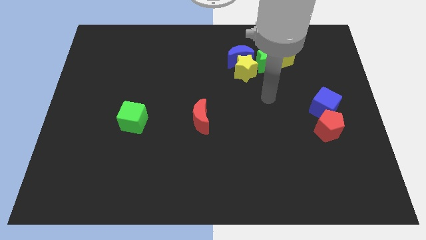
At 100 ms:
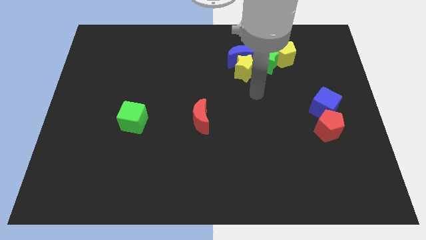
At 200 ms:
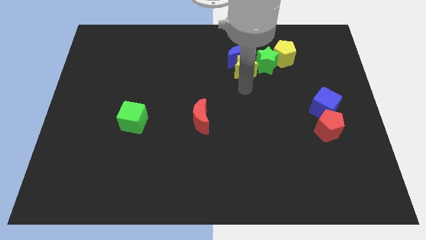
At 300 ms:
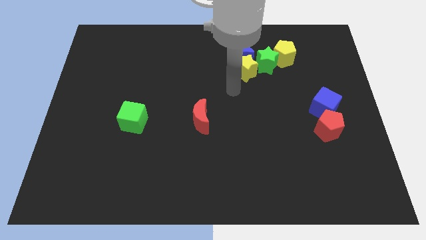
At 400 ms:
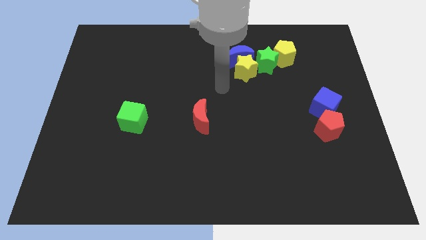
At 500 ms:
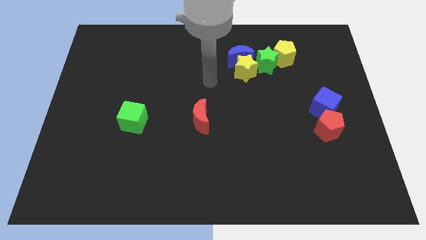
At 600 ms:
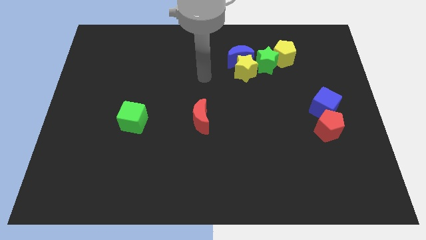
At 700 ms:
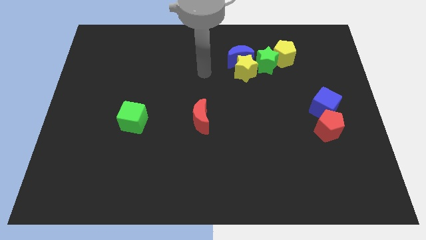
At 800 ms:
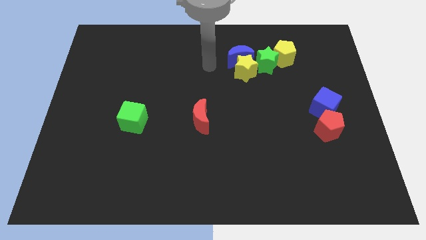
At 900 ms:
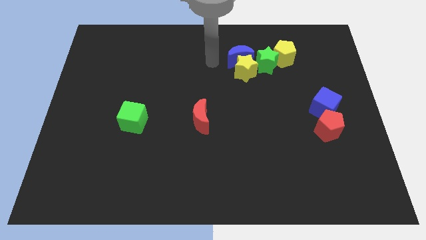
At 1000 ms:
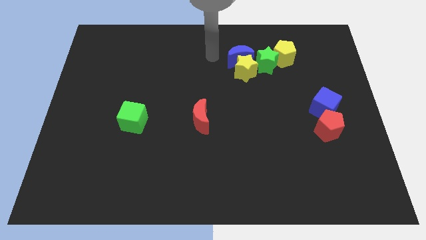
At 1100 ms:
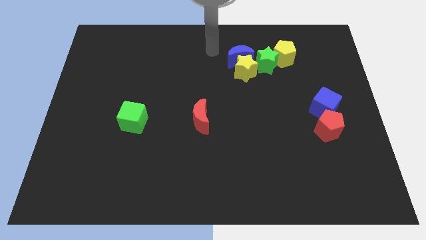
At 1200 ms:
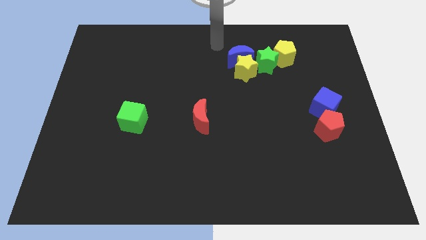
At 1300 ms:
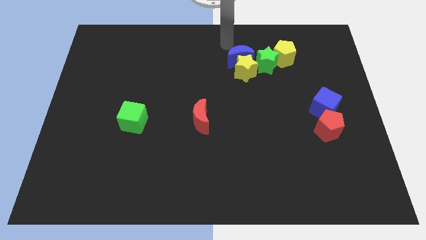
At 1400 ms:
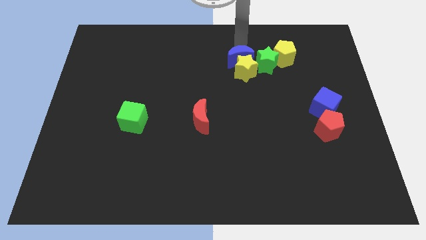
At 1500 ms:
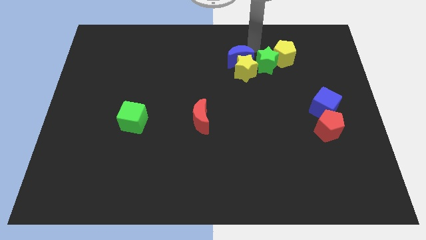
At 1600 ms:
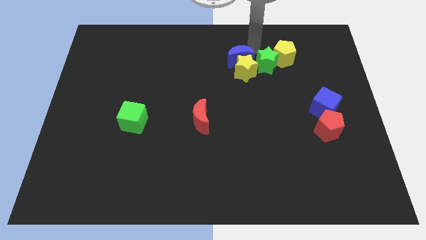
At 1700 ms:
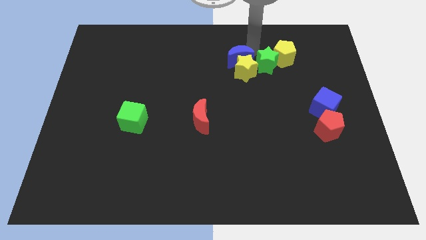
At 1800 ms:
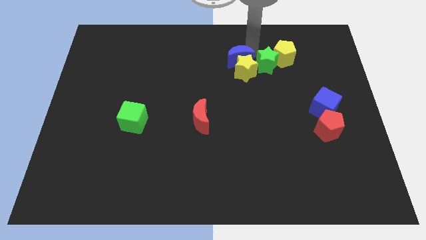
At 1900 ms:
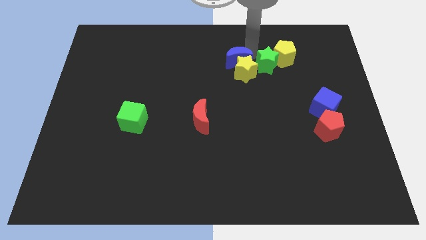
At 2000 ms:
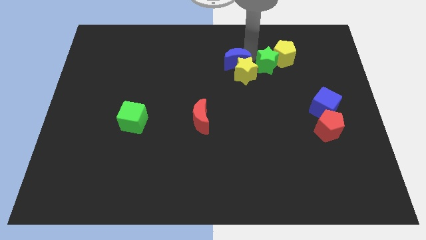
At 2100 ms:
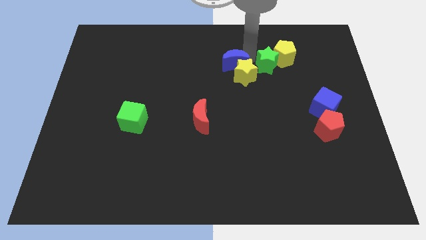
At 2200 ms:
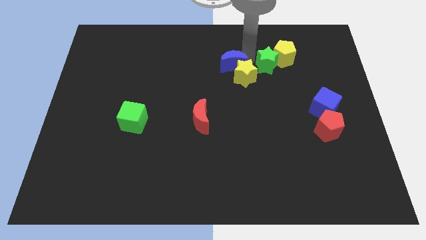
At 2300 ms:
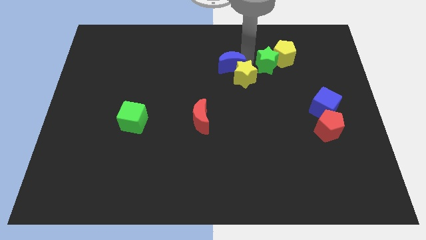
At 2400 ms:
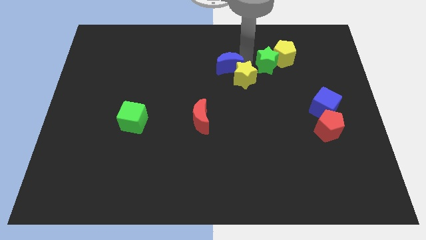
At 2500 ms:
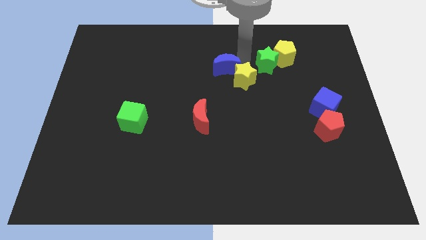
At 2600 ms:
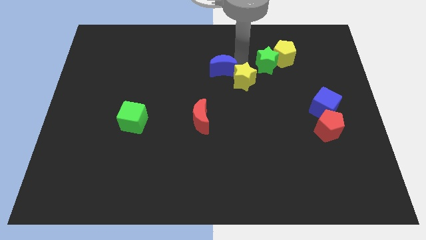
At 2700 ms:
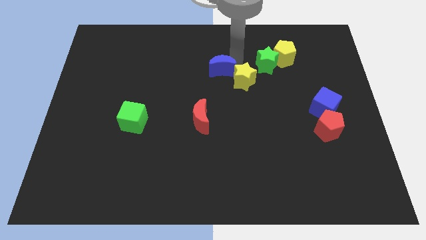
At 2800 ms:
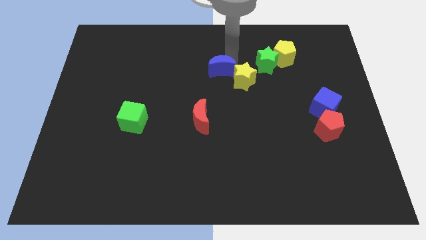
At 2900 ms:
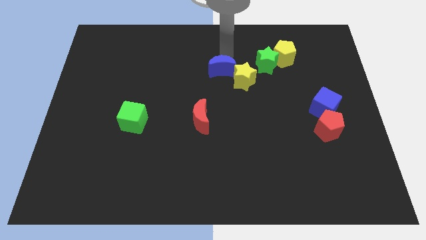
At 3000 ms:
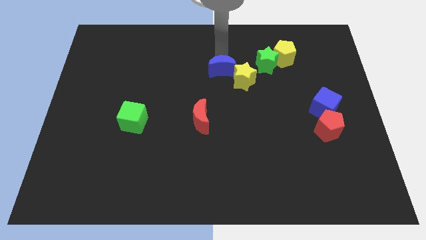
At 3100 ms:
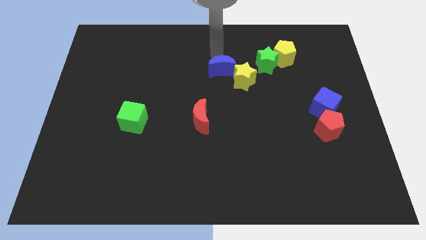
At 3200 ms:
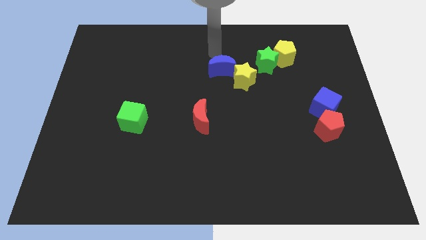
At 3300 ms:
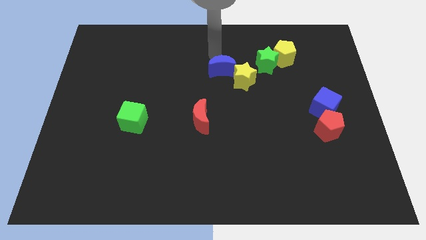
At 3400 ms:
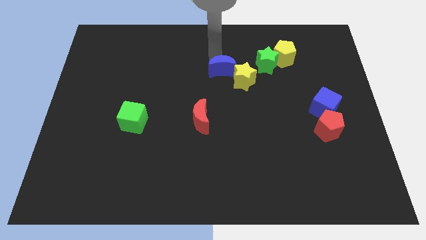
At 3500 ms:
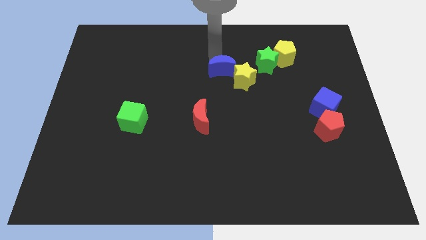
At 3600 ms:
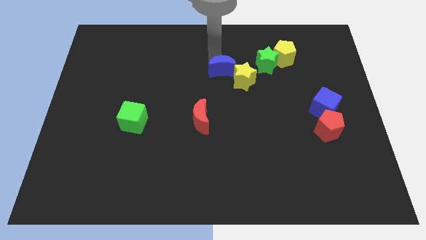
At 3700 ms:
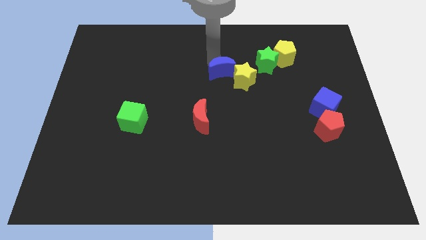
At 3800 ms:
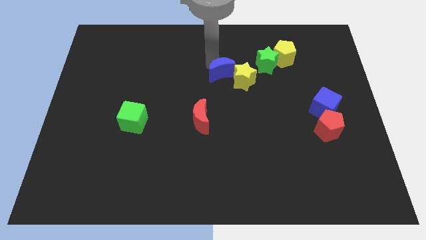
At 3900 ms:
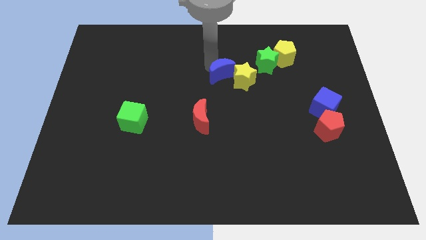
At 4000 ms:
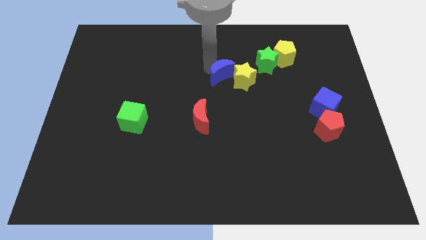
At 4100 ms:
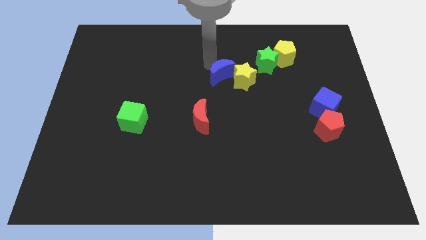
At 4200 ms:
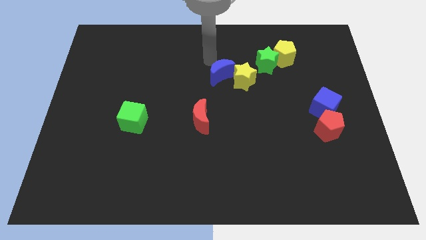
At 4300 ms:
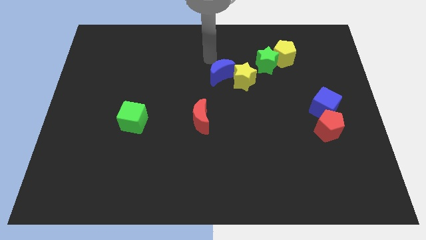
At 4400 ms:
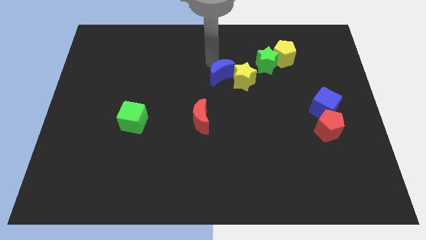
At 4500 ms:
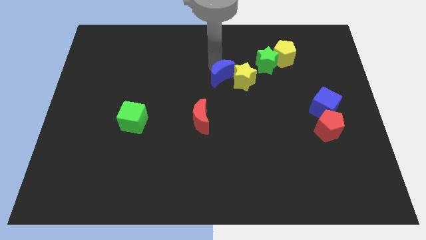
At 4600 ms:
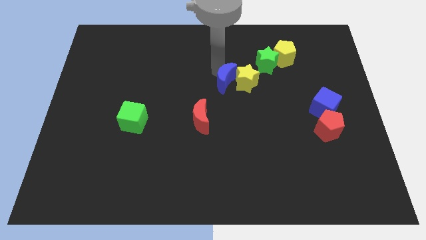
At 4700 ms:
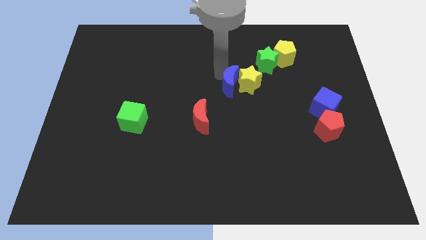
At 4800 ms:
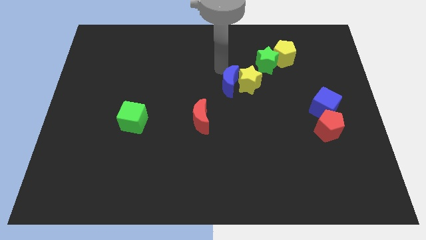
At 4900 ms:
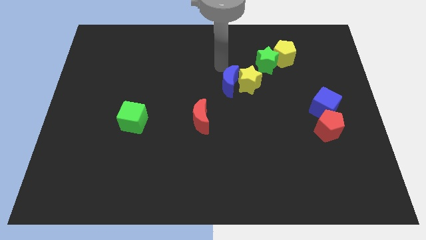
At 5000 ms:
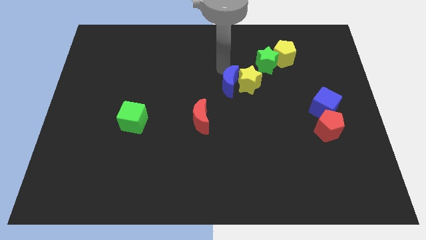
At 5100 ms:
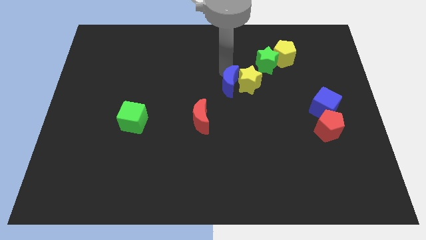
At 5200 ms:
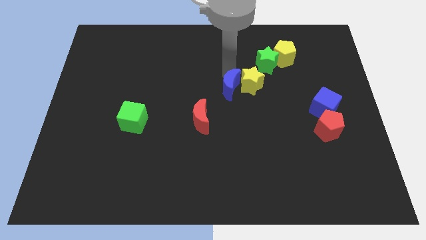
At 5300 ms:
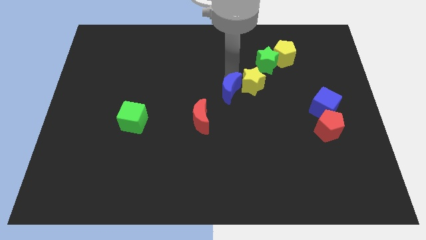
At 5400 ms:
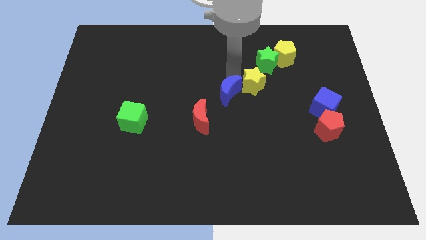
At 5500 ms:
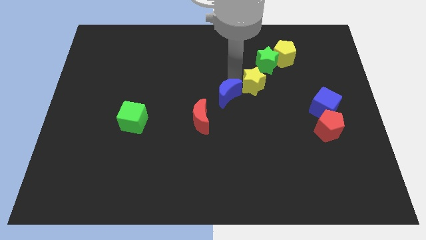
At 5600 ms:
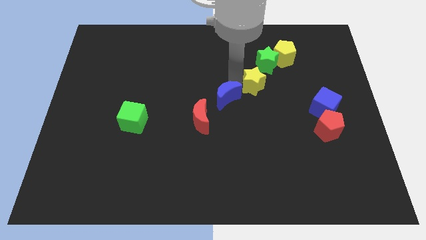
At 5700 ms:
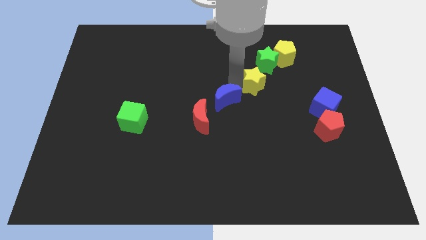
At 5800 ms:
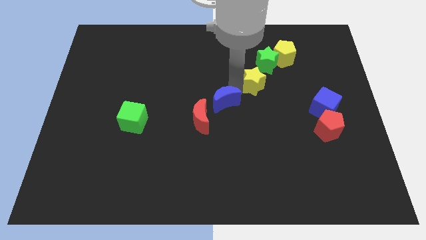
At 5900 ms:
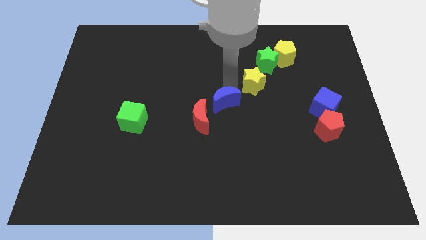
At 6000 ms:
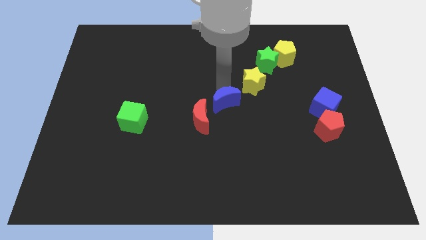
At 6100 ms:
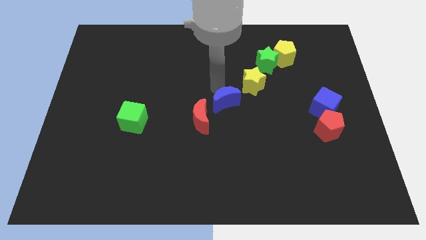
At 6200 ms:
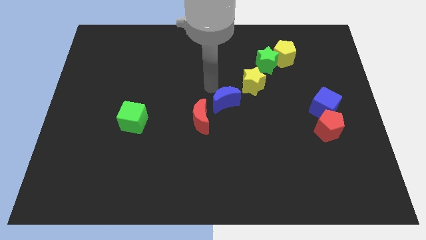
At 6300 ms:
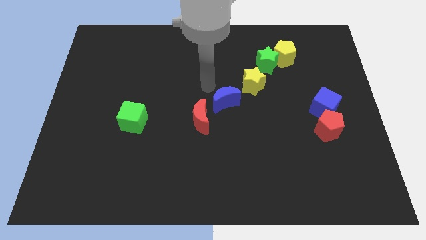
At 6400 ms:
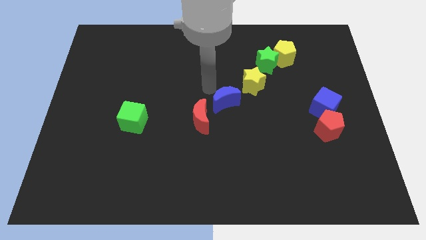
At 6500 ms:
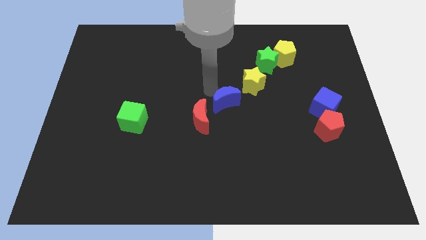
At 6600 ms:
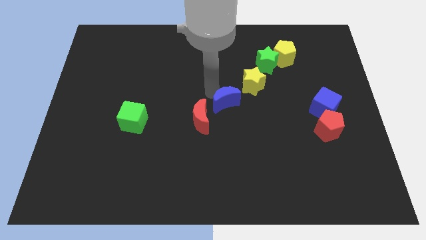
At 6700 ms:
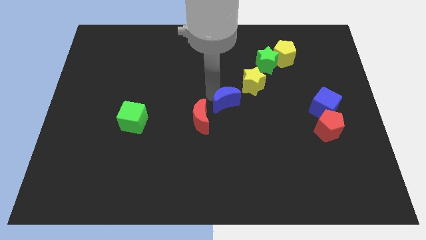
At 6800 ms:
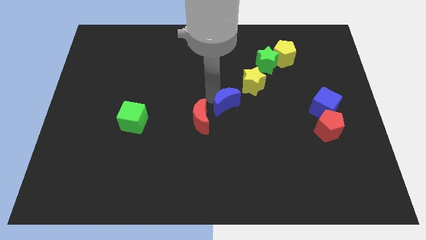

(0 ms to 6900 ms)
push the blue moon to the right of the red moon

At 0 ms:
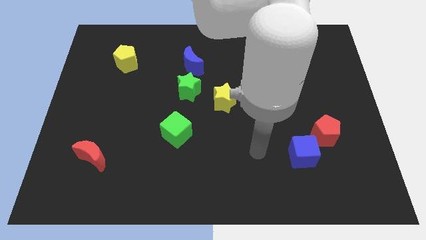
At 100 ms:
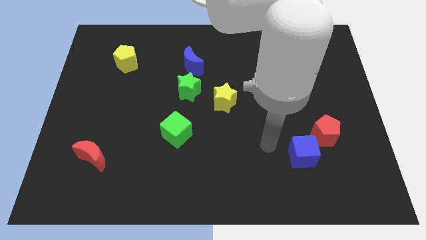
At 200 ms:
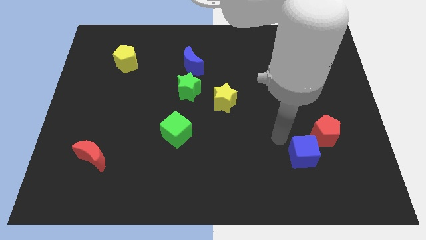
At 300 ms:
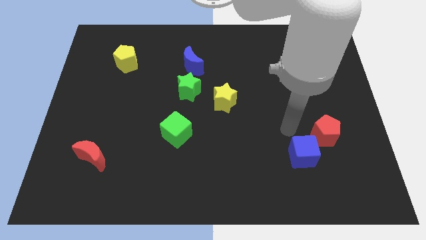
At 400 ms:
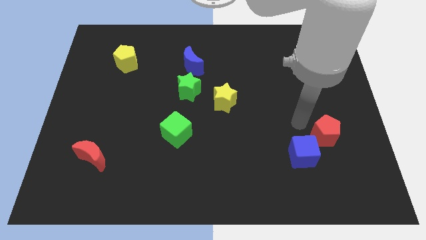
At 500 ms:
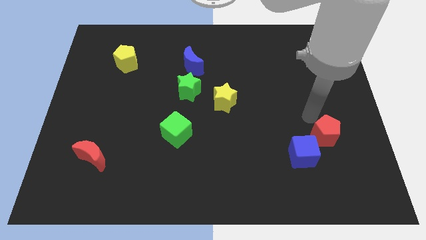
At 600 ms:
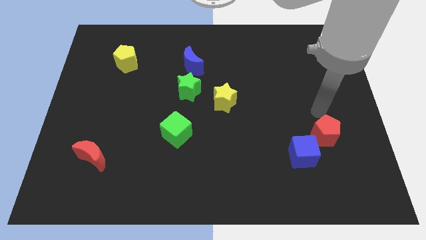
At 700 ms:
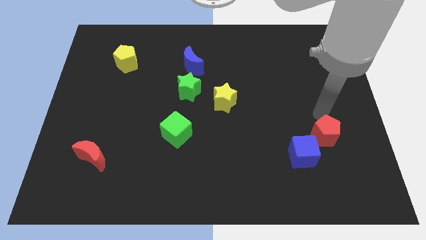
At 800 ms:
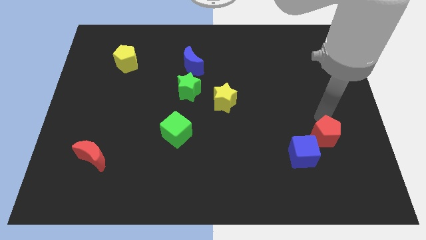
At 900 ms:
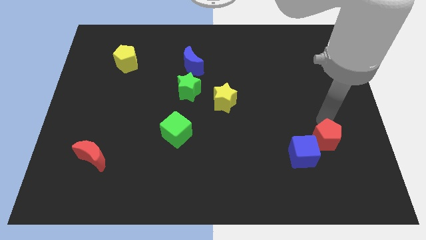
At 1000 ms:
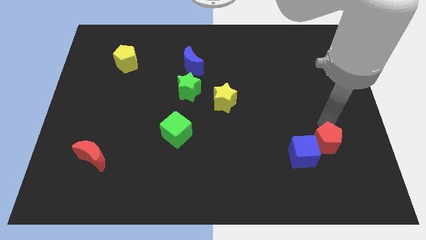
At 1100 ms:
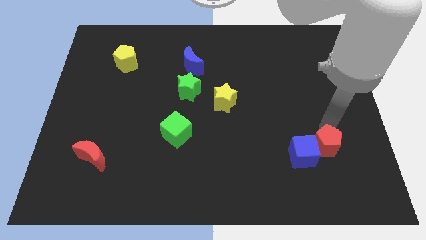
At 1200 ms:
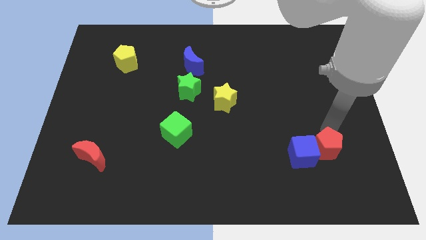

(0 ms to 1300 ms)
move the red pentagon to the bottom right of the blue cube
